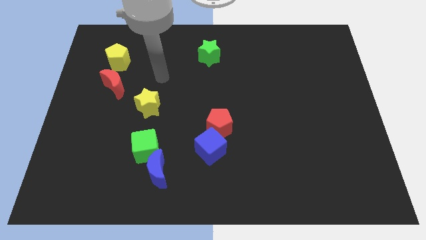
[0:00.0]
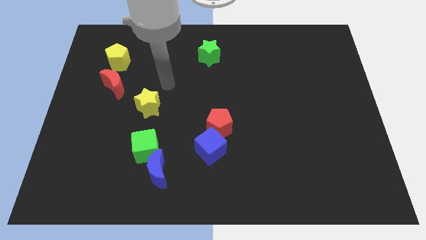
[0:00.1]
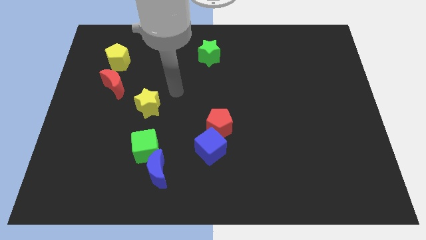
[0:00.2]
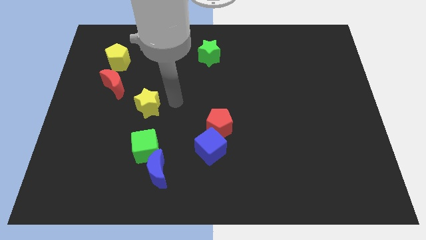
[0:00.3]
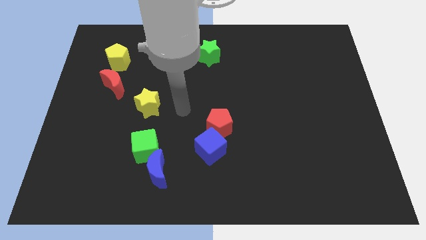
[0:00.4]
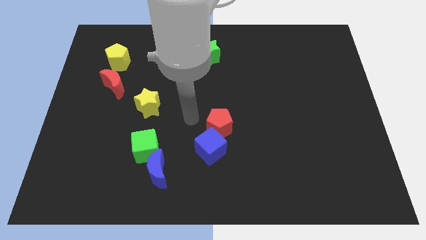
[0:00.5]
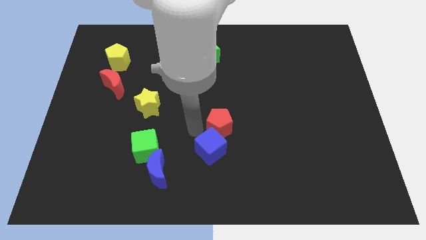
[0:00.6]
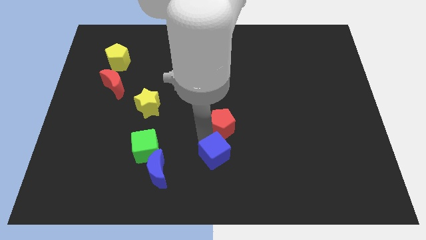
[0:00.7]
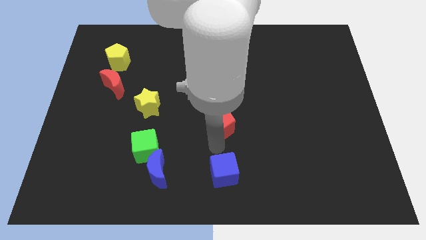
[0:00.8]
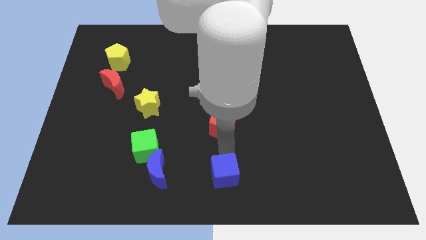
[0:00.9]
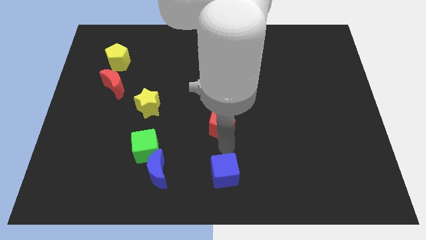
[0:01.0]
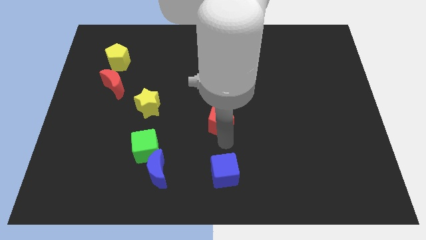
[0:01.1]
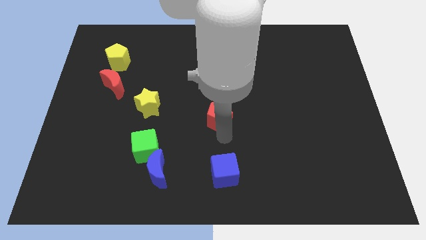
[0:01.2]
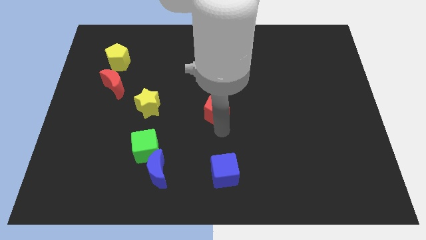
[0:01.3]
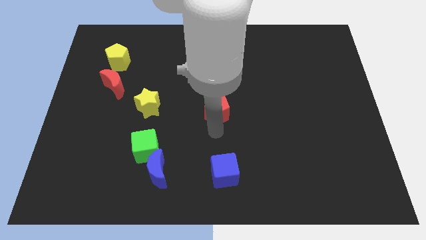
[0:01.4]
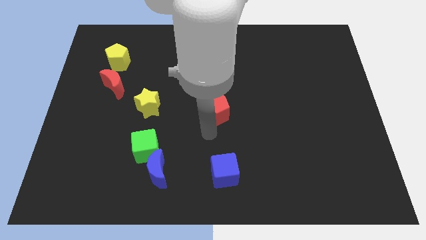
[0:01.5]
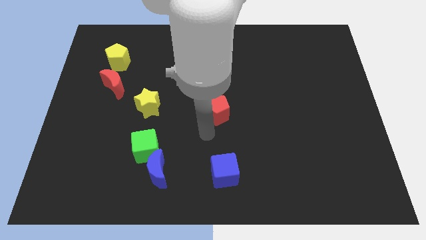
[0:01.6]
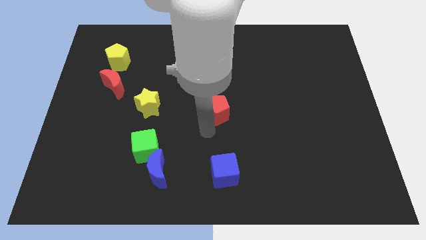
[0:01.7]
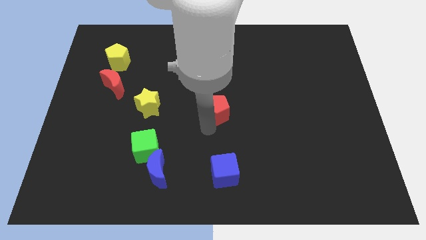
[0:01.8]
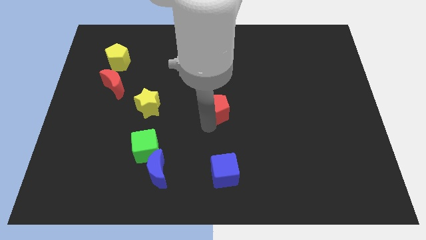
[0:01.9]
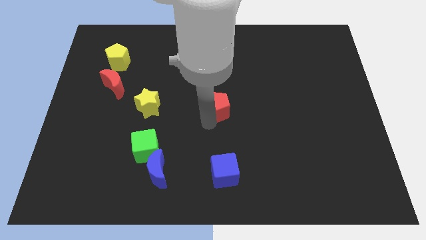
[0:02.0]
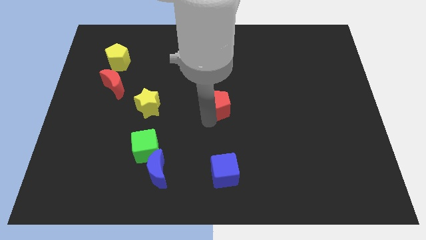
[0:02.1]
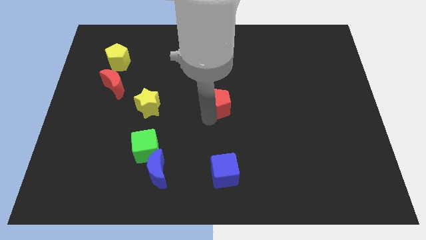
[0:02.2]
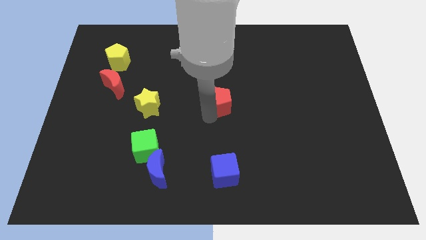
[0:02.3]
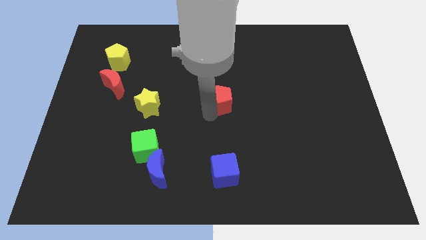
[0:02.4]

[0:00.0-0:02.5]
push the red pentagon up a bit

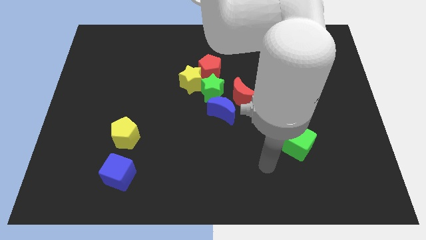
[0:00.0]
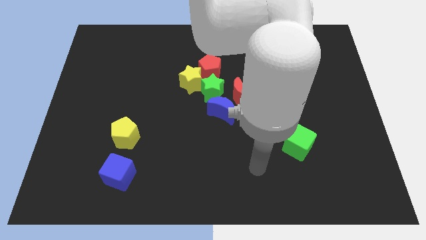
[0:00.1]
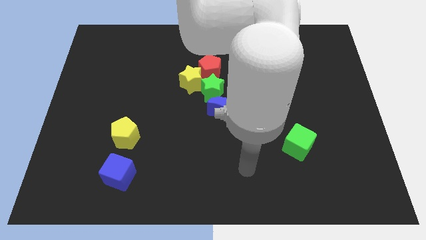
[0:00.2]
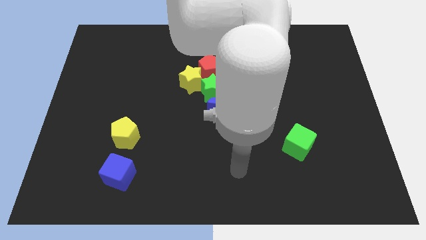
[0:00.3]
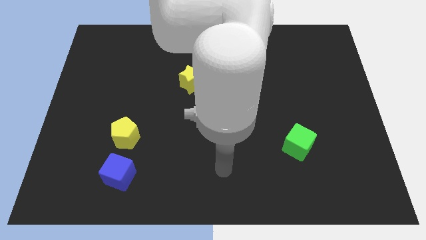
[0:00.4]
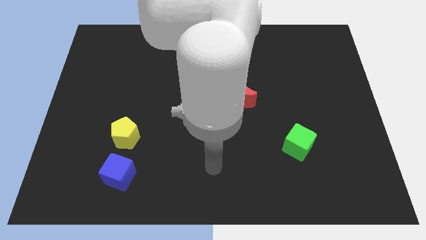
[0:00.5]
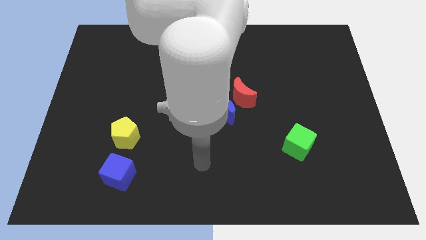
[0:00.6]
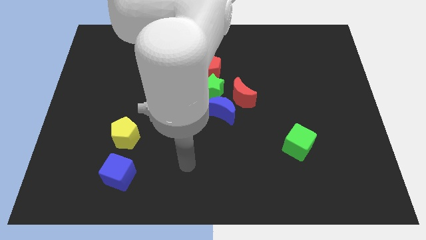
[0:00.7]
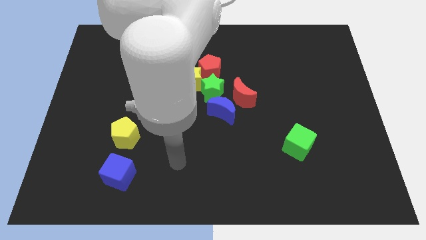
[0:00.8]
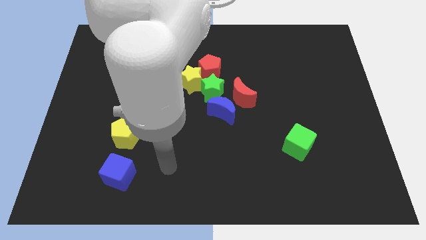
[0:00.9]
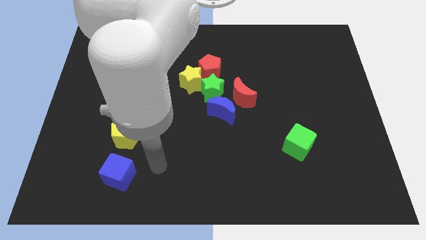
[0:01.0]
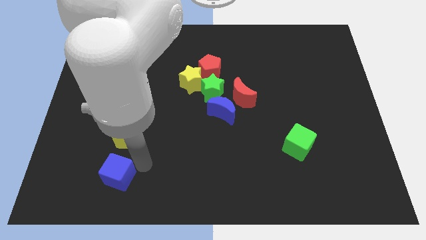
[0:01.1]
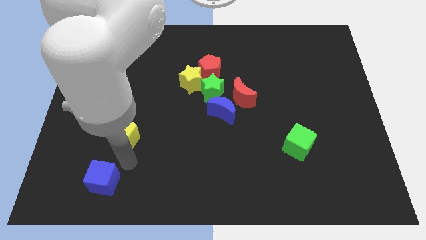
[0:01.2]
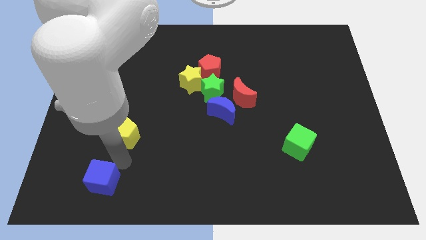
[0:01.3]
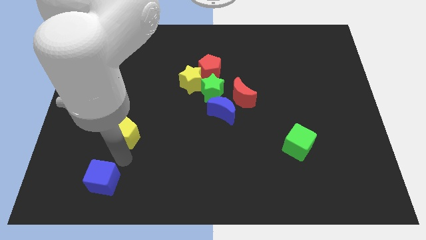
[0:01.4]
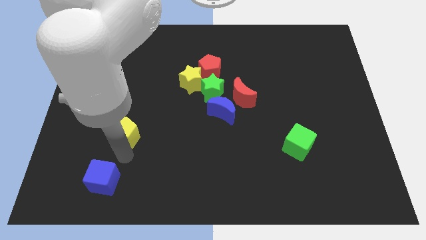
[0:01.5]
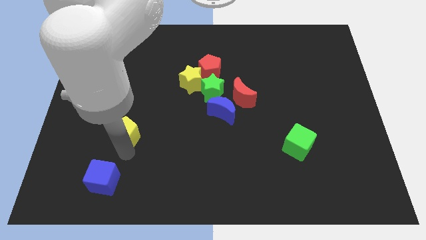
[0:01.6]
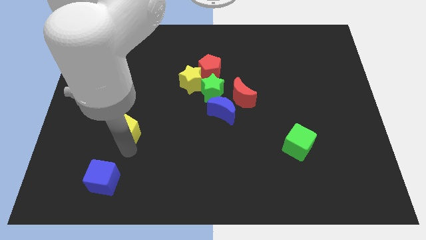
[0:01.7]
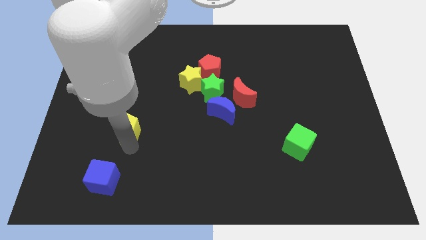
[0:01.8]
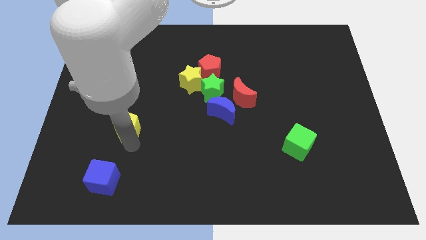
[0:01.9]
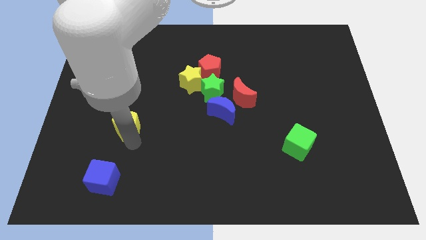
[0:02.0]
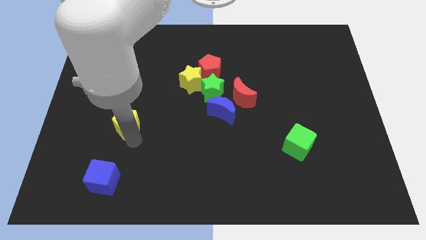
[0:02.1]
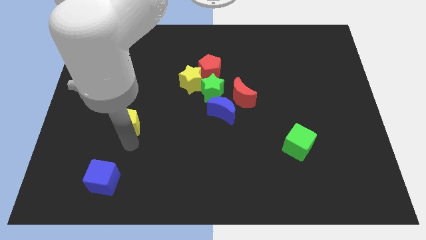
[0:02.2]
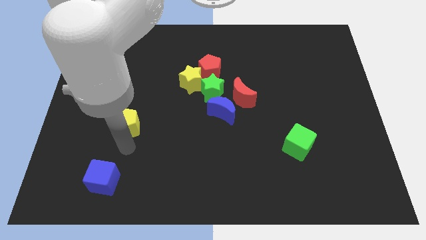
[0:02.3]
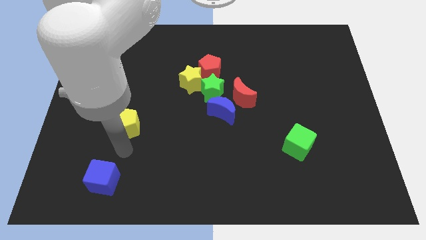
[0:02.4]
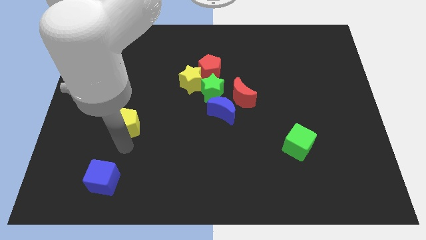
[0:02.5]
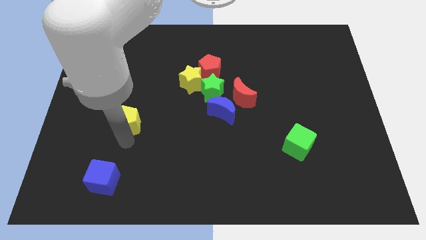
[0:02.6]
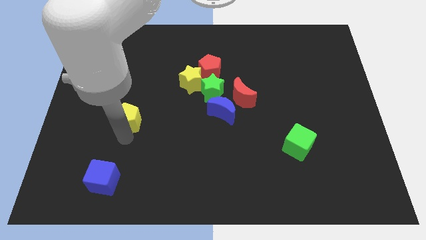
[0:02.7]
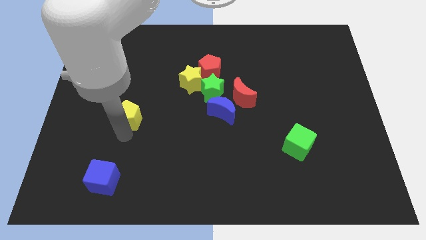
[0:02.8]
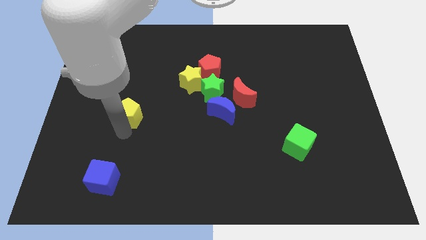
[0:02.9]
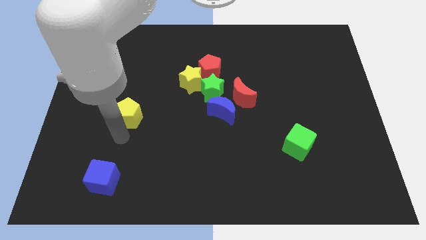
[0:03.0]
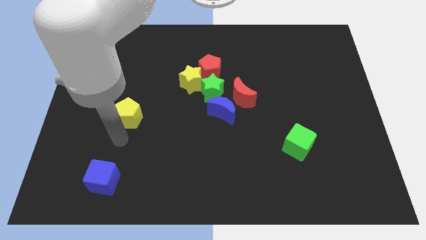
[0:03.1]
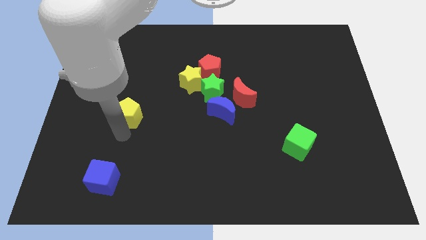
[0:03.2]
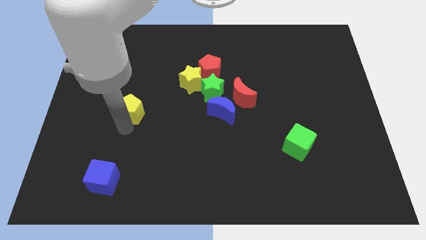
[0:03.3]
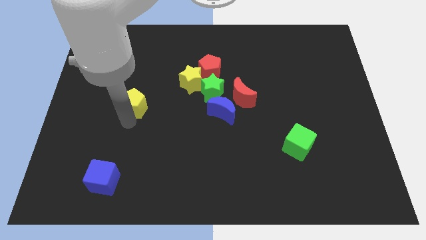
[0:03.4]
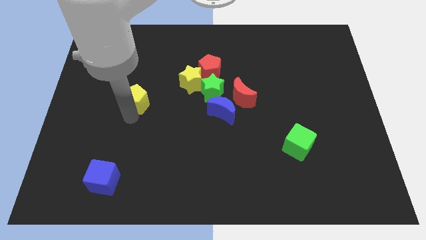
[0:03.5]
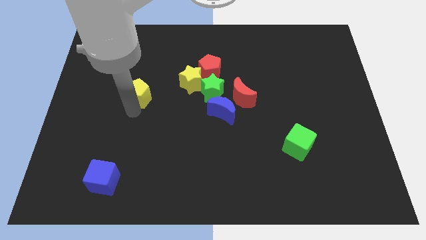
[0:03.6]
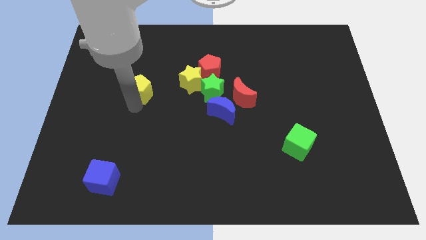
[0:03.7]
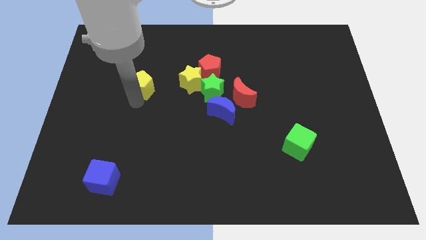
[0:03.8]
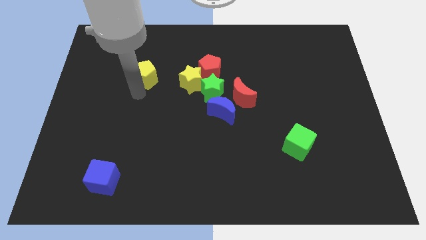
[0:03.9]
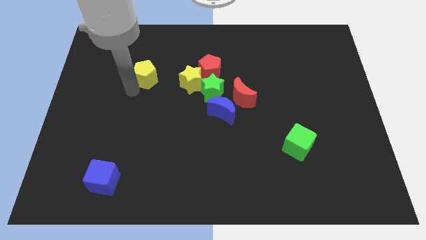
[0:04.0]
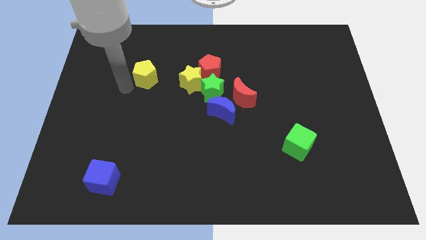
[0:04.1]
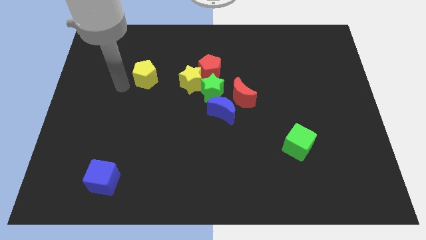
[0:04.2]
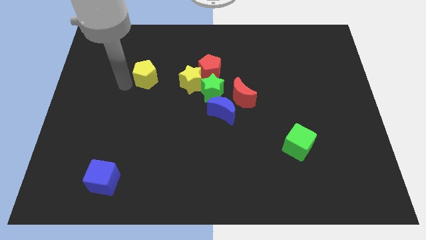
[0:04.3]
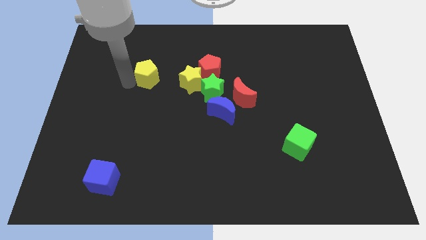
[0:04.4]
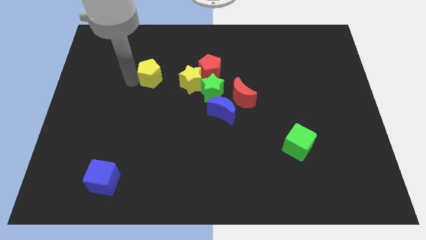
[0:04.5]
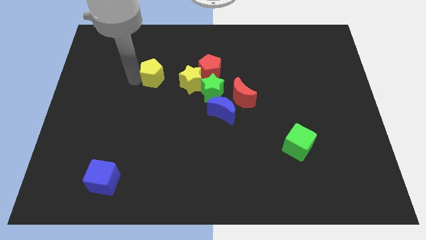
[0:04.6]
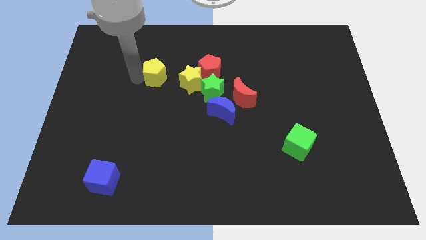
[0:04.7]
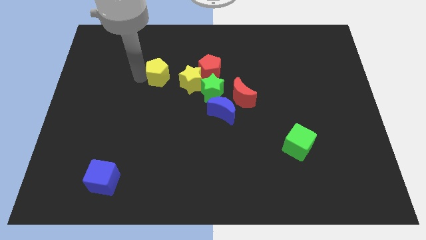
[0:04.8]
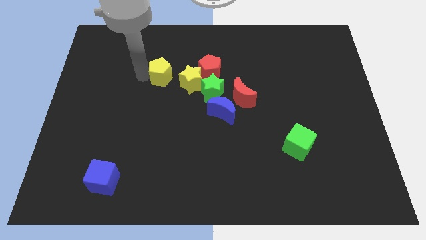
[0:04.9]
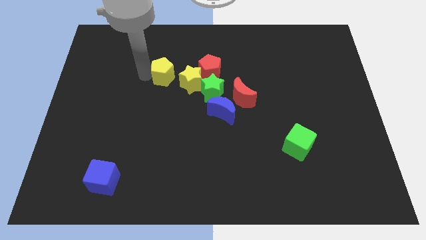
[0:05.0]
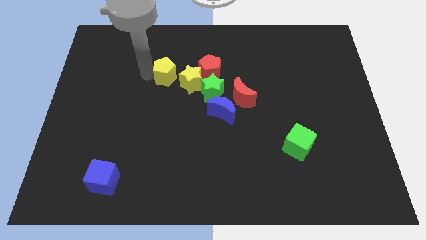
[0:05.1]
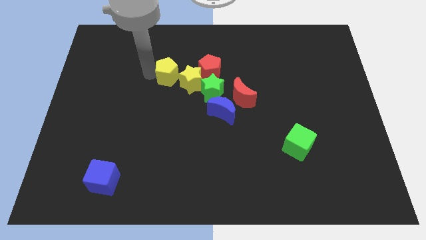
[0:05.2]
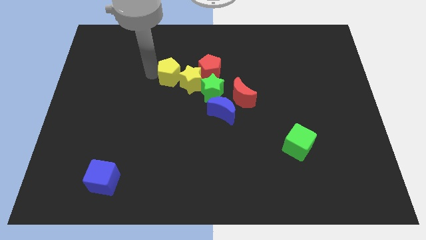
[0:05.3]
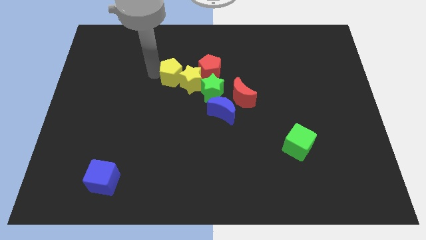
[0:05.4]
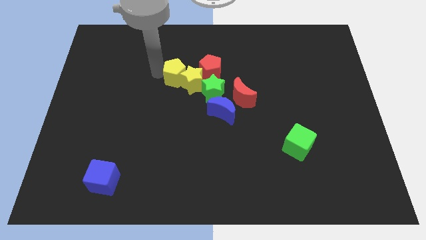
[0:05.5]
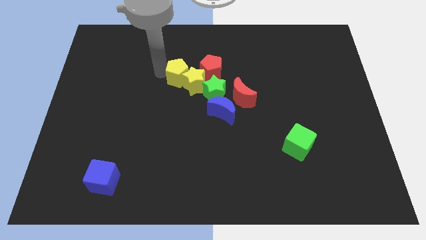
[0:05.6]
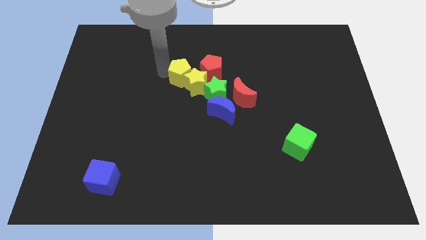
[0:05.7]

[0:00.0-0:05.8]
move the yellow pentagon upwards and right
